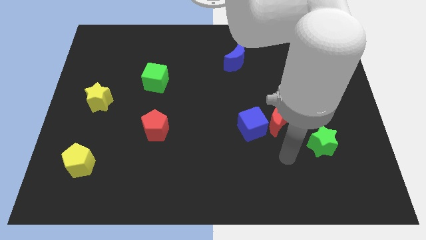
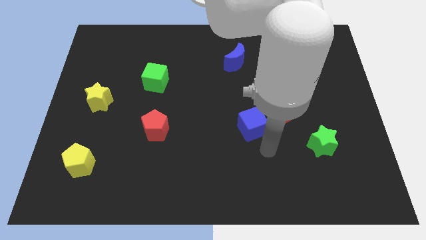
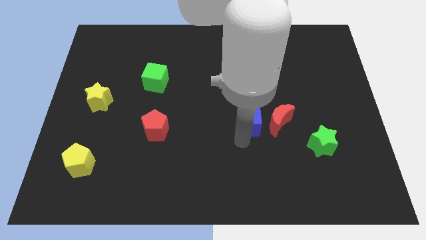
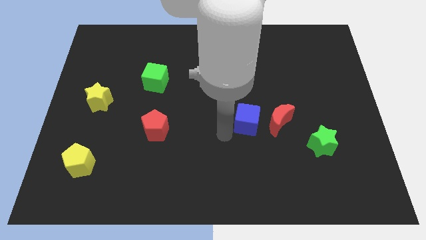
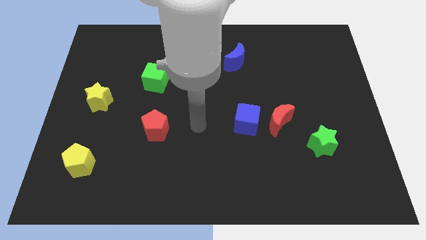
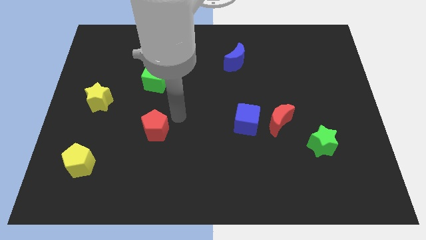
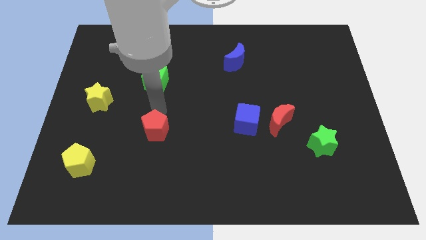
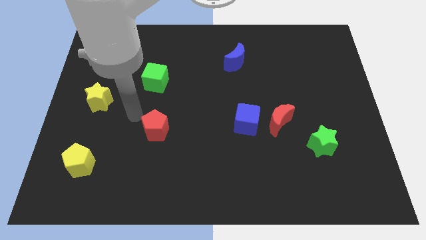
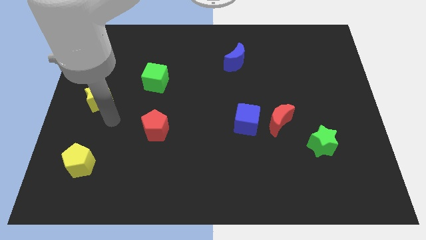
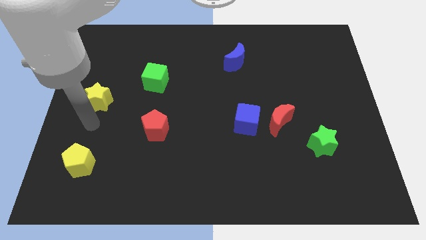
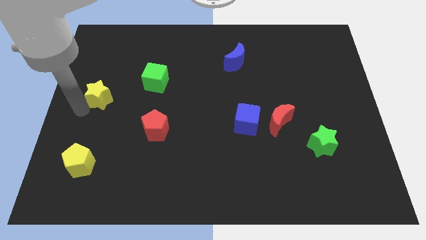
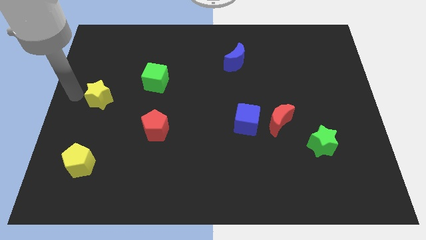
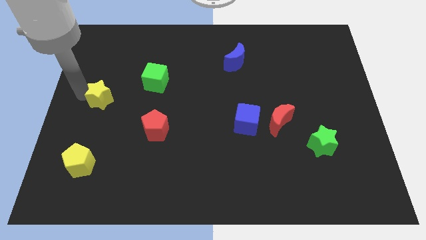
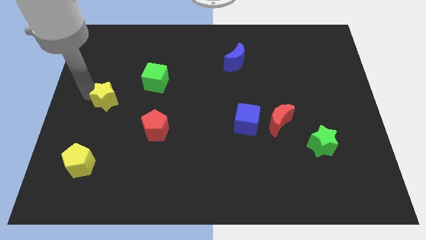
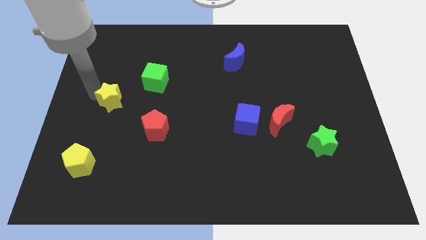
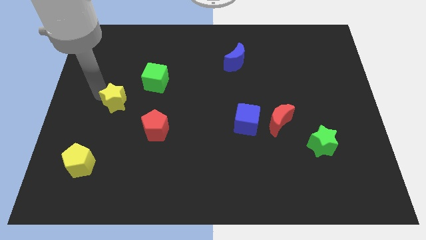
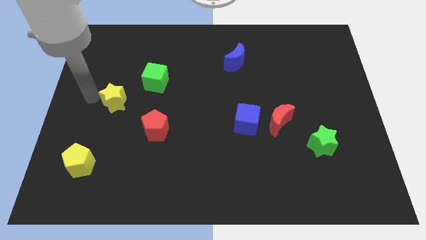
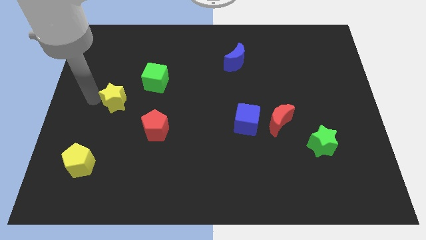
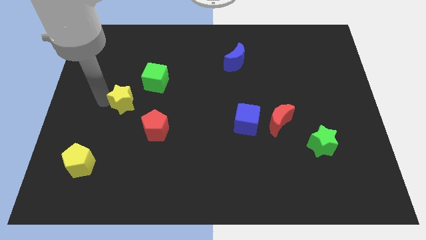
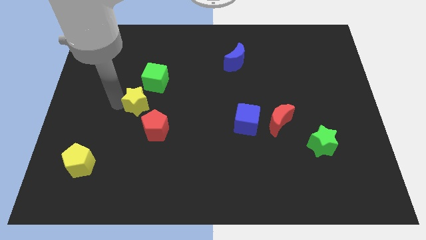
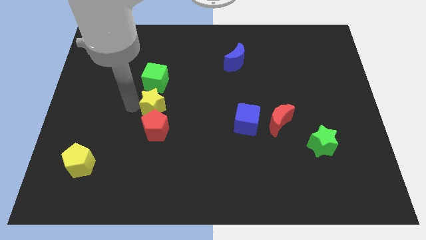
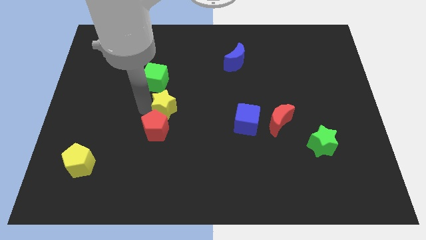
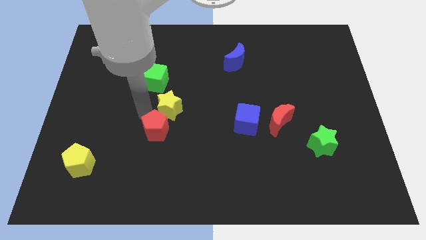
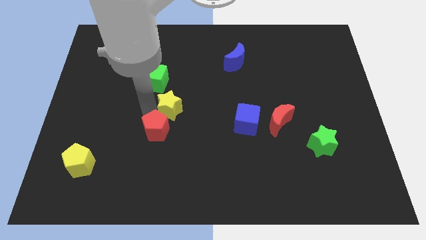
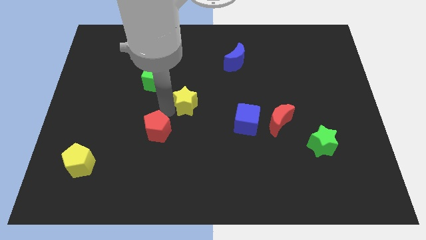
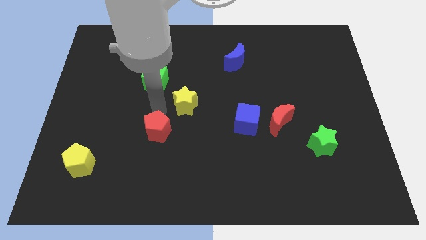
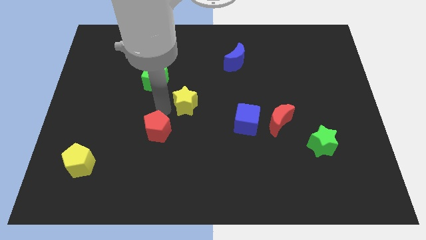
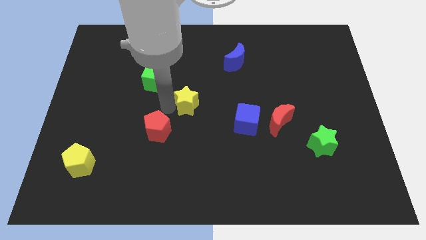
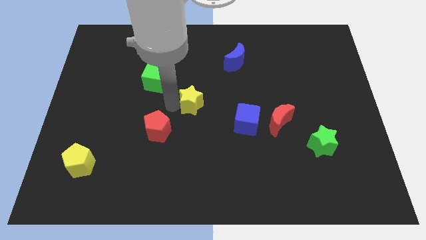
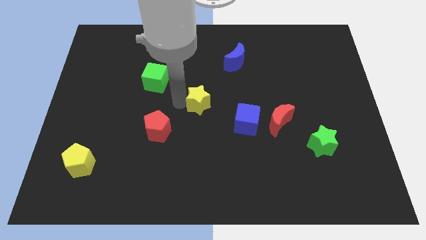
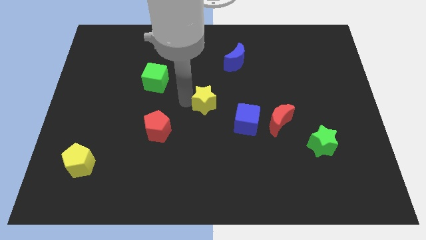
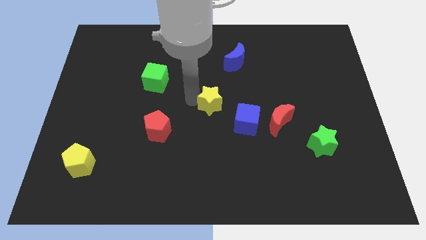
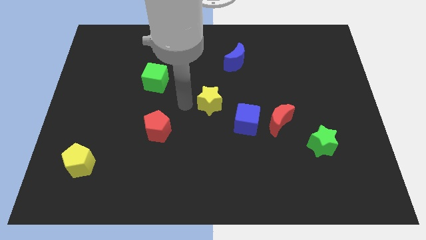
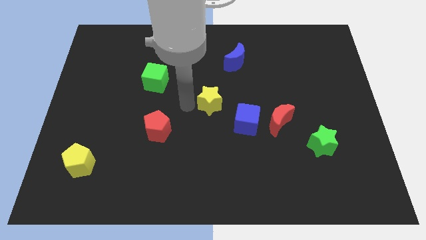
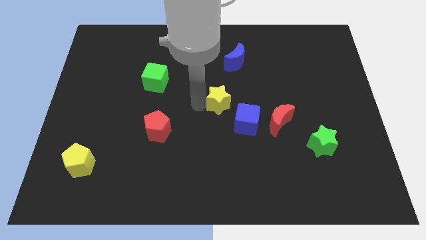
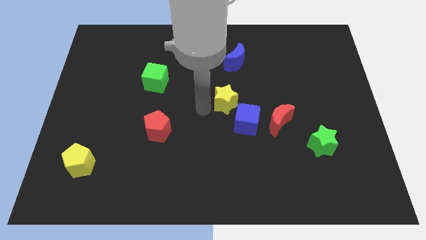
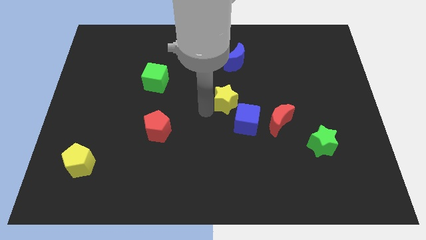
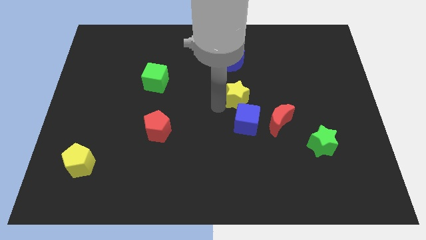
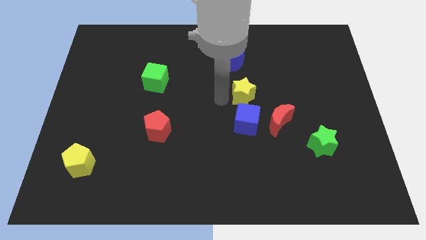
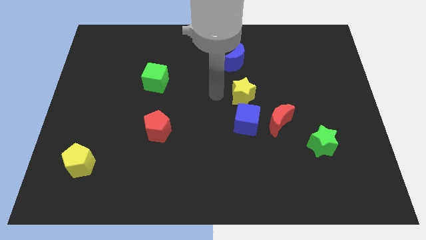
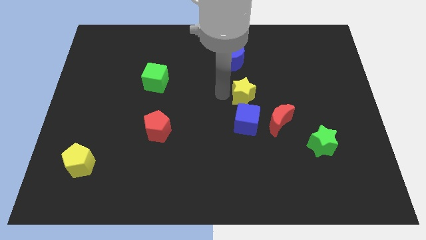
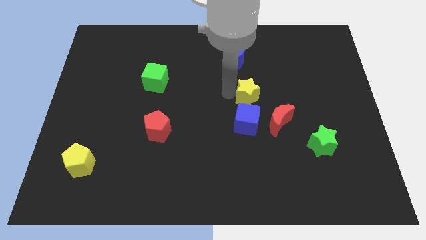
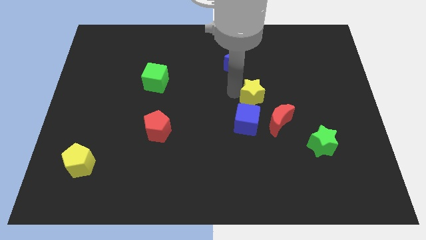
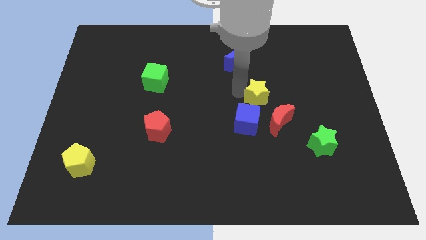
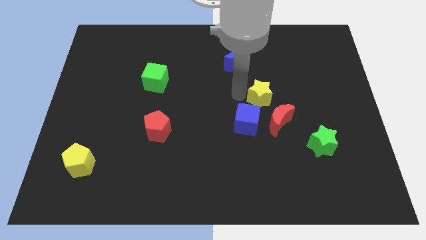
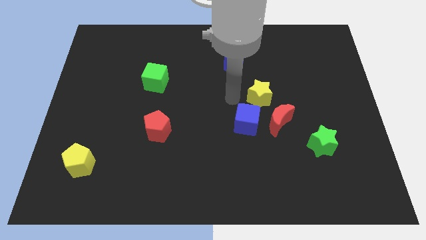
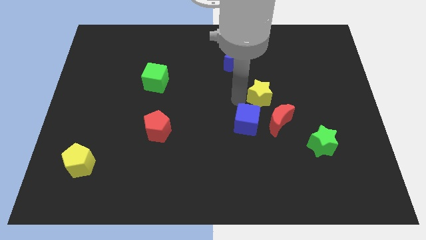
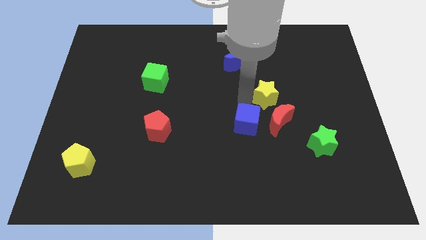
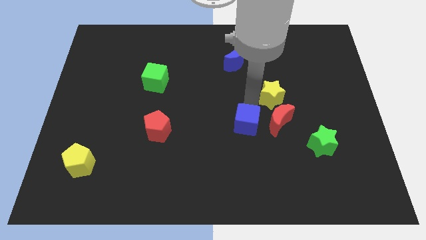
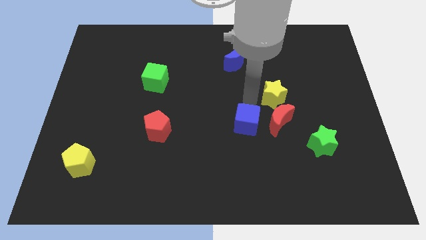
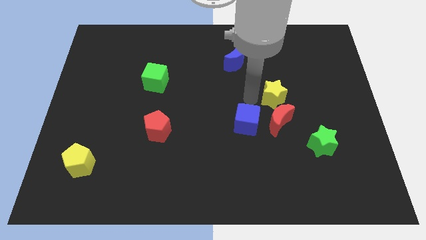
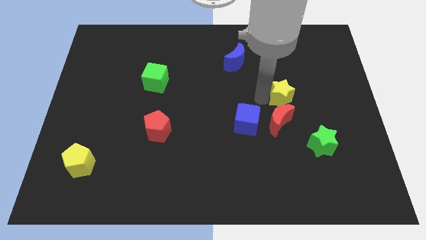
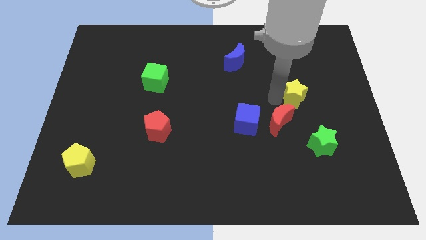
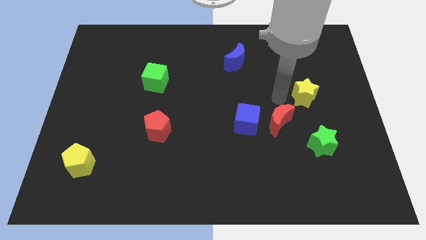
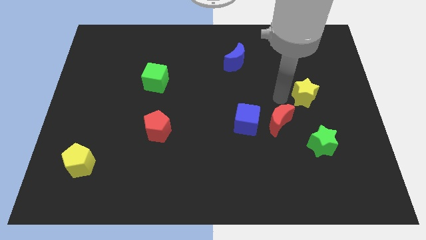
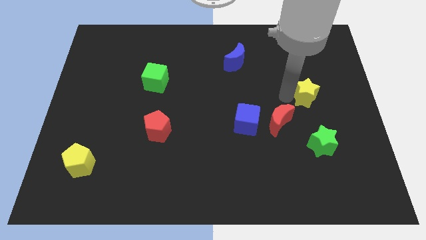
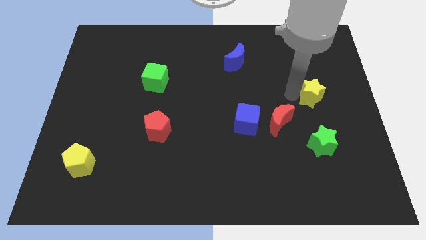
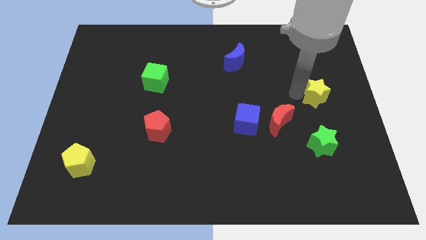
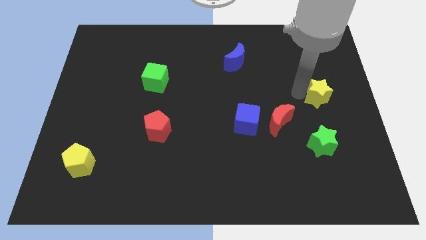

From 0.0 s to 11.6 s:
push the yellow star to the right side of the board
